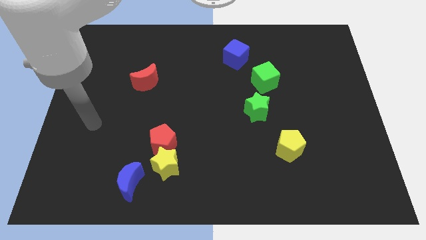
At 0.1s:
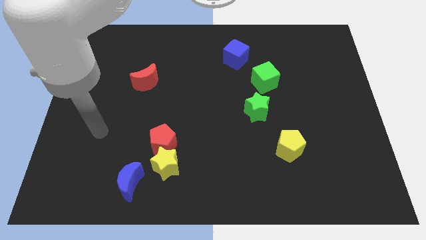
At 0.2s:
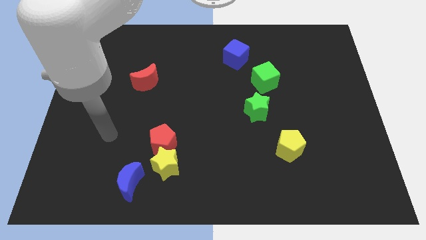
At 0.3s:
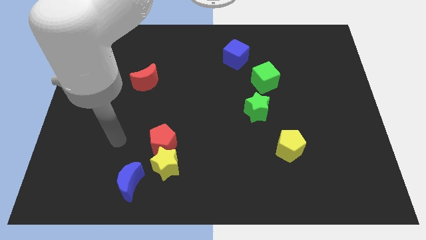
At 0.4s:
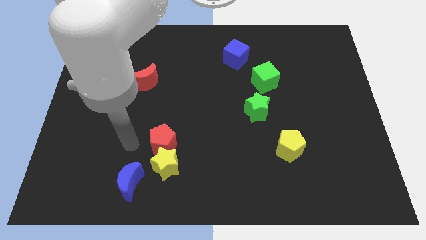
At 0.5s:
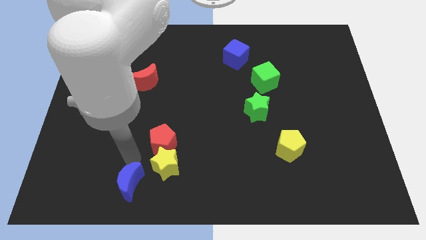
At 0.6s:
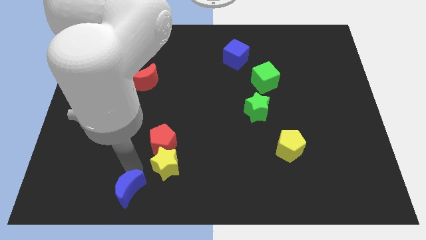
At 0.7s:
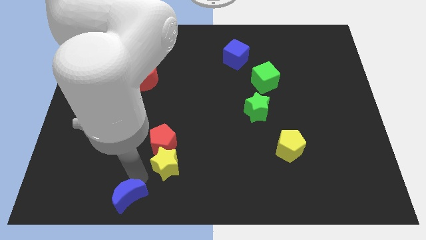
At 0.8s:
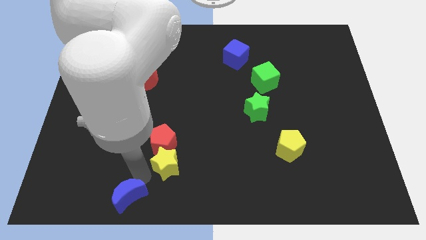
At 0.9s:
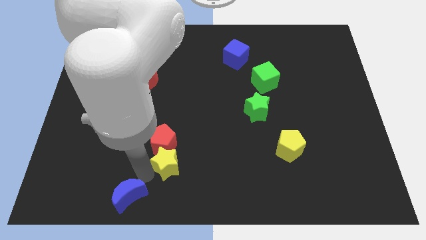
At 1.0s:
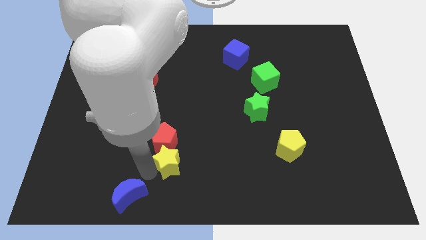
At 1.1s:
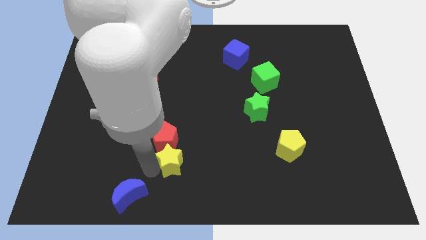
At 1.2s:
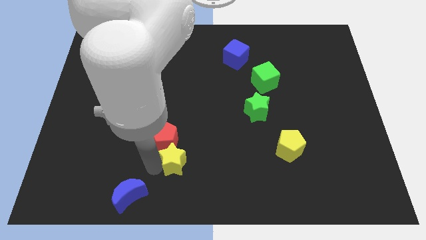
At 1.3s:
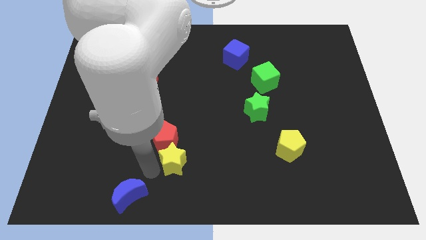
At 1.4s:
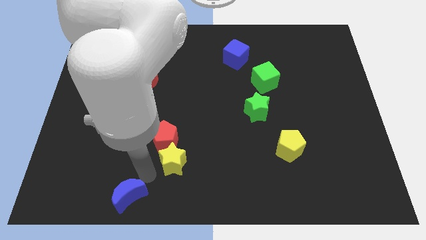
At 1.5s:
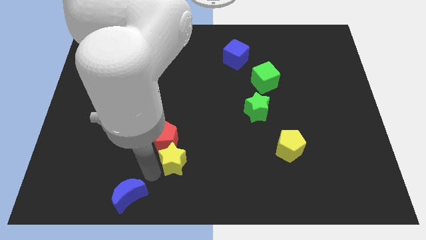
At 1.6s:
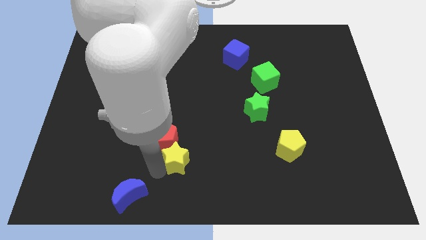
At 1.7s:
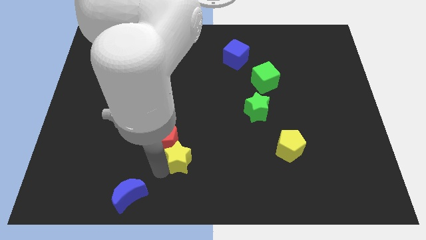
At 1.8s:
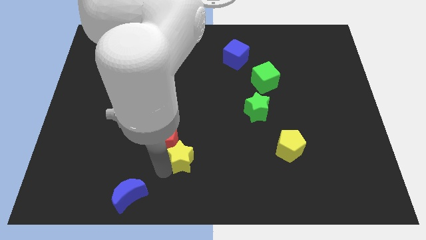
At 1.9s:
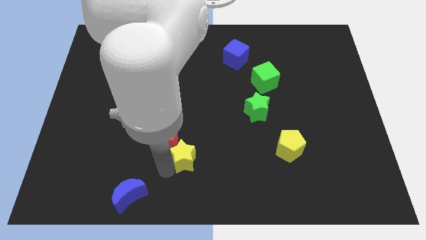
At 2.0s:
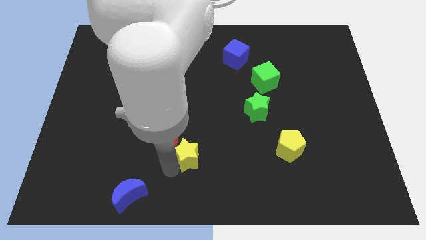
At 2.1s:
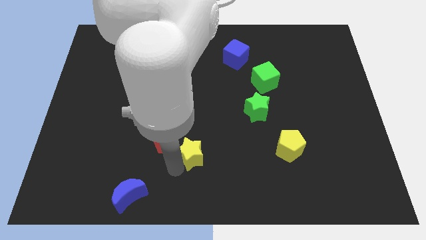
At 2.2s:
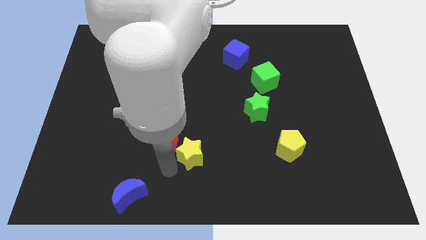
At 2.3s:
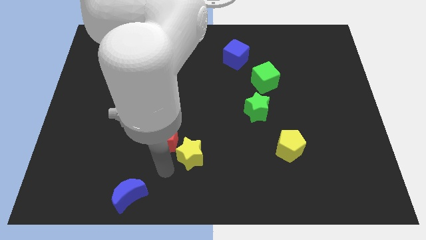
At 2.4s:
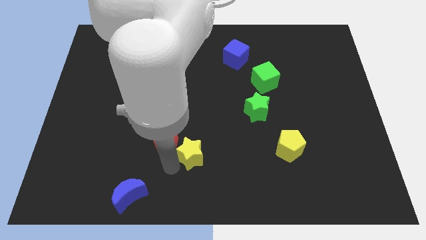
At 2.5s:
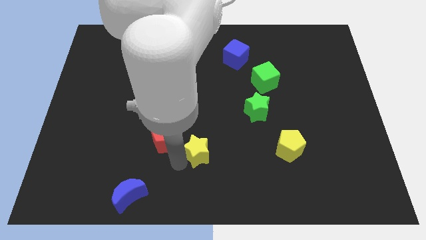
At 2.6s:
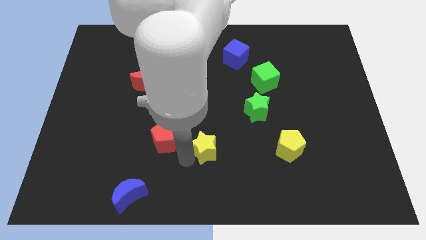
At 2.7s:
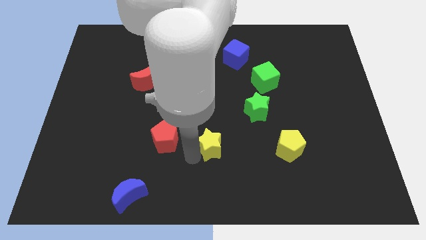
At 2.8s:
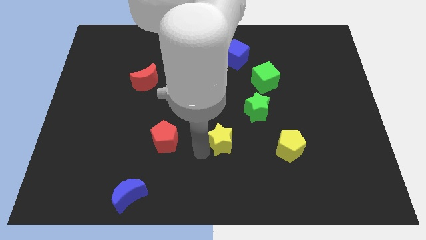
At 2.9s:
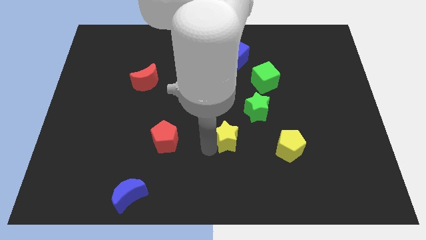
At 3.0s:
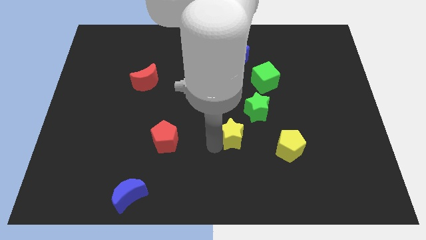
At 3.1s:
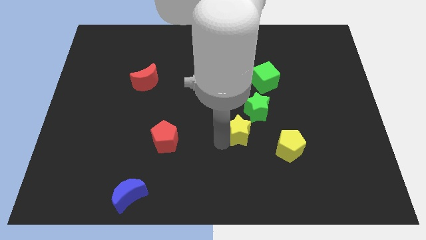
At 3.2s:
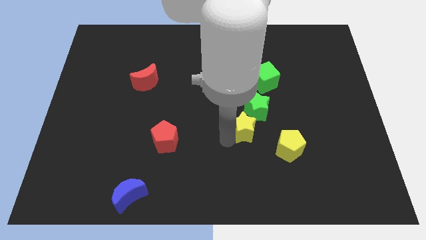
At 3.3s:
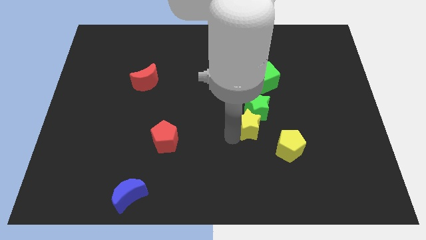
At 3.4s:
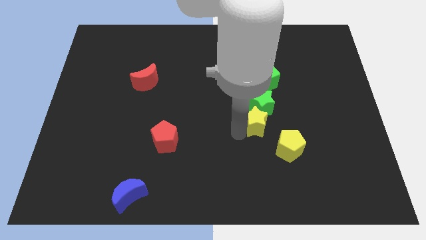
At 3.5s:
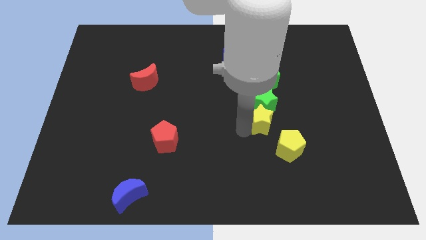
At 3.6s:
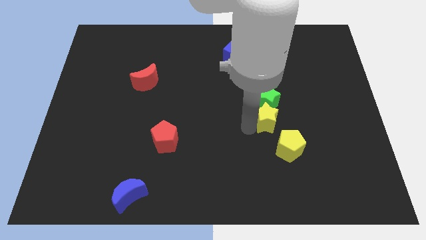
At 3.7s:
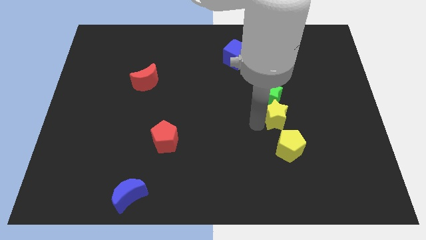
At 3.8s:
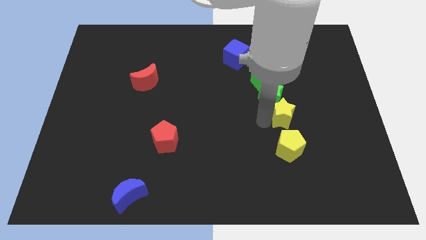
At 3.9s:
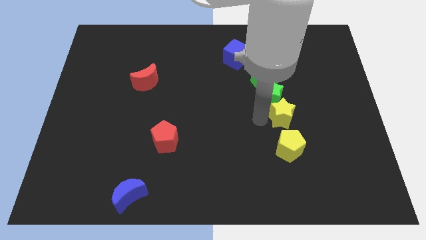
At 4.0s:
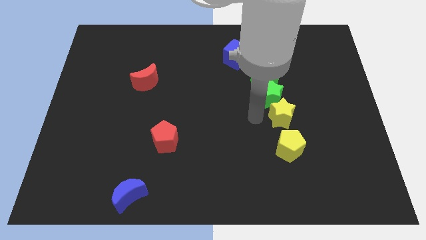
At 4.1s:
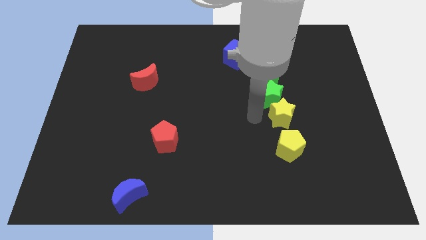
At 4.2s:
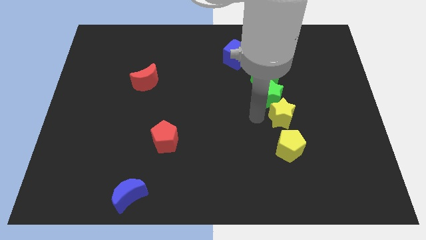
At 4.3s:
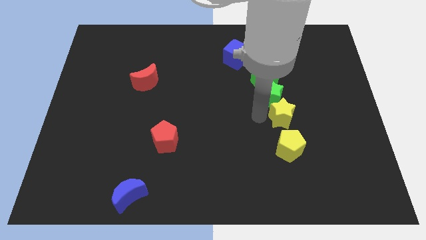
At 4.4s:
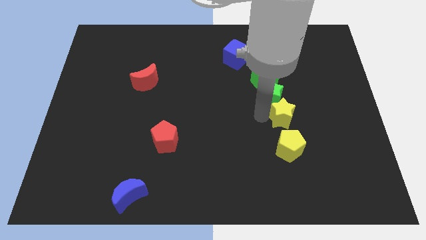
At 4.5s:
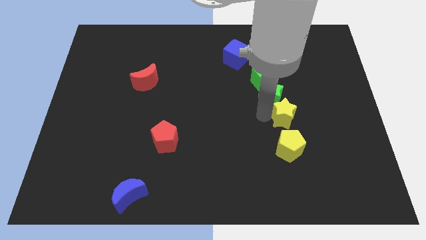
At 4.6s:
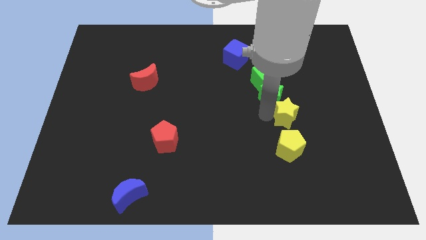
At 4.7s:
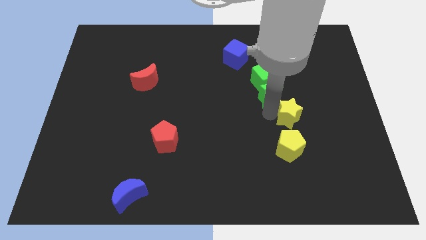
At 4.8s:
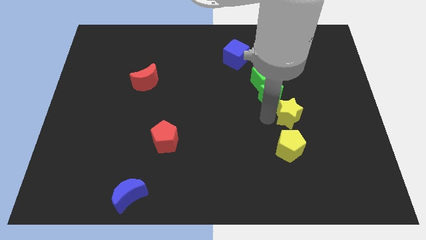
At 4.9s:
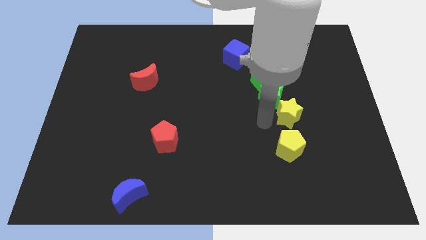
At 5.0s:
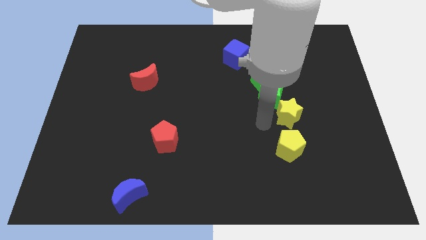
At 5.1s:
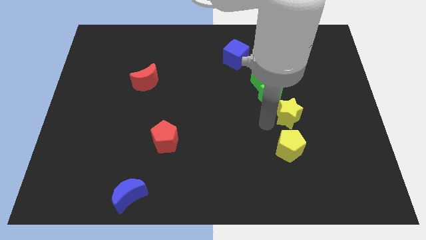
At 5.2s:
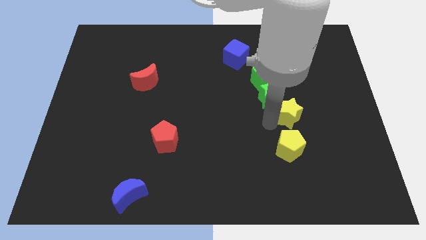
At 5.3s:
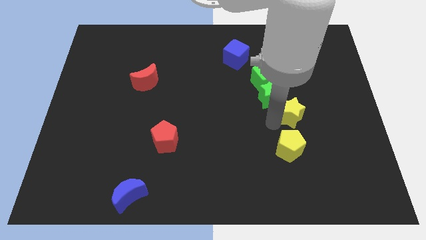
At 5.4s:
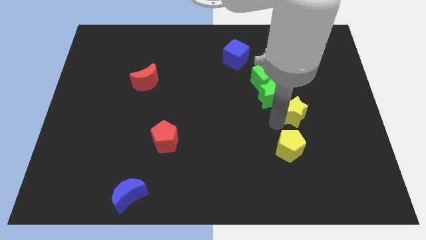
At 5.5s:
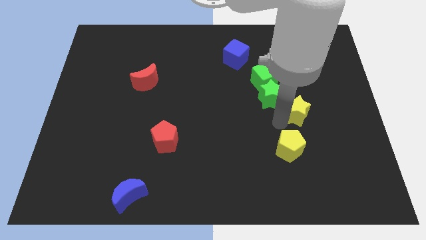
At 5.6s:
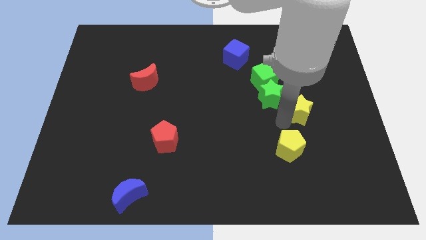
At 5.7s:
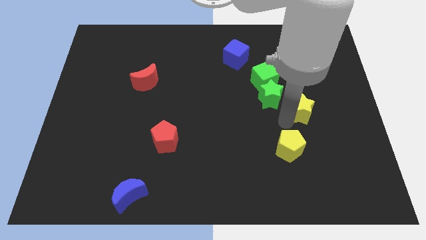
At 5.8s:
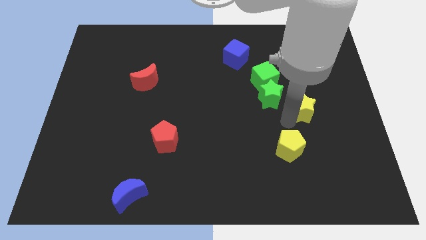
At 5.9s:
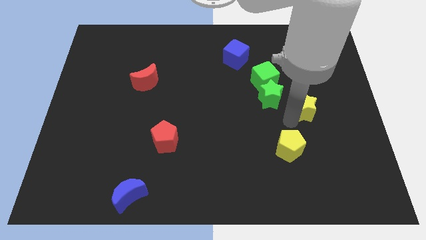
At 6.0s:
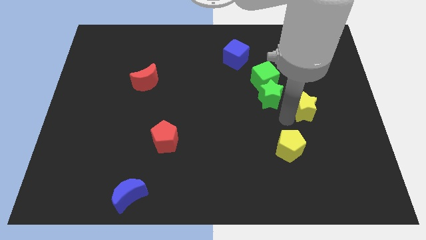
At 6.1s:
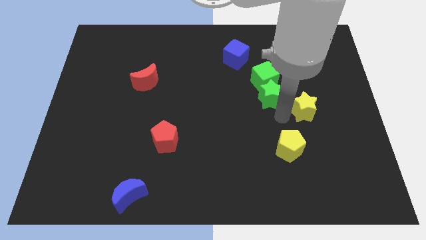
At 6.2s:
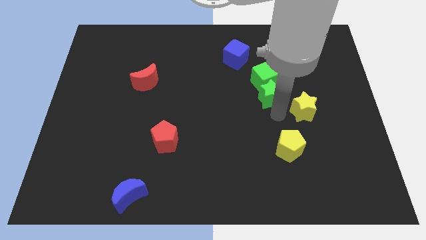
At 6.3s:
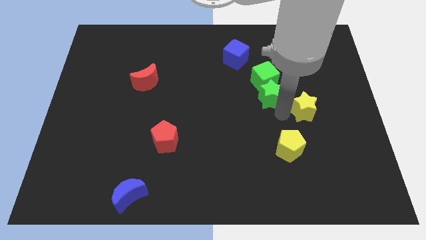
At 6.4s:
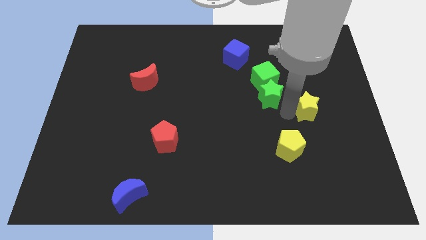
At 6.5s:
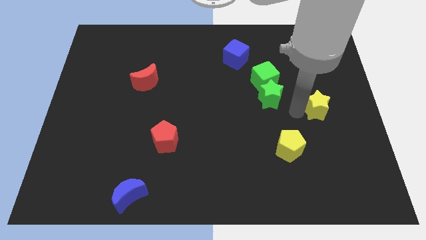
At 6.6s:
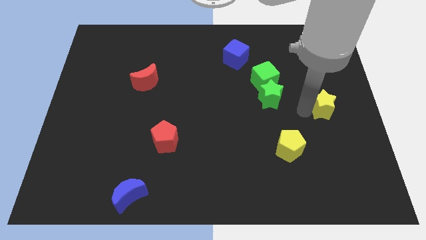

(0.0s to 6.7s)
slide the yellow star to the center right
